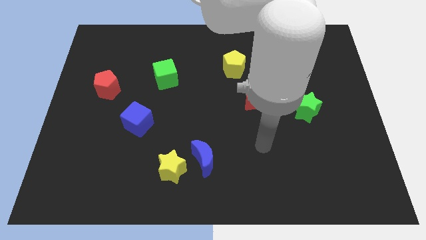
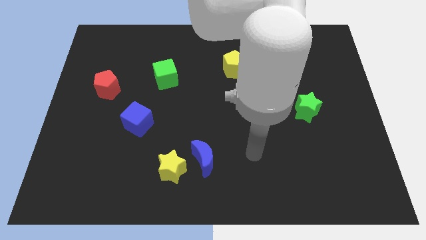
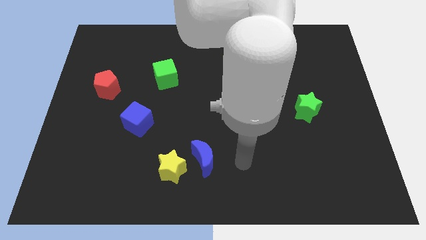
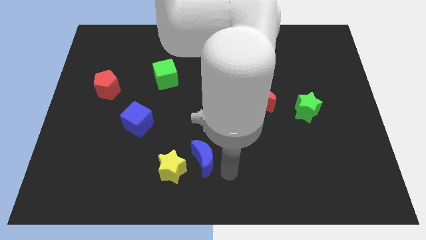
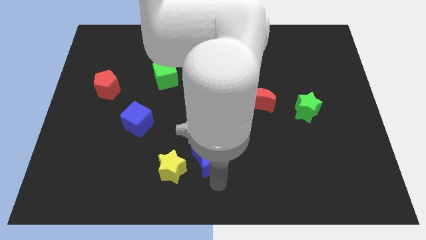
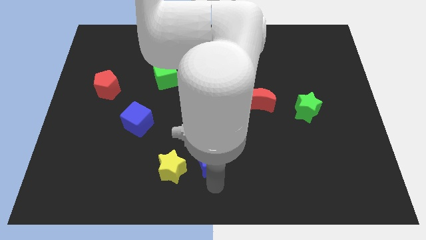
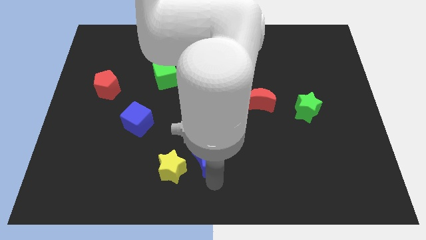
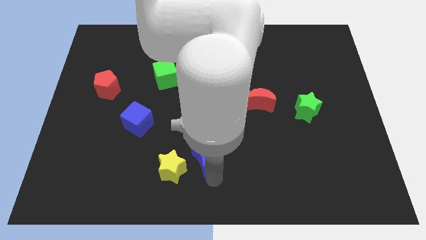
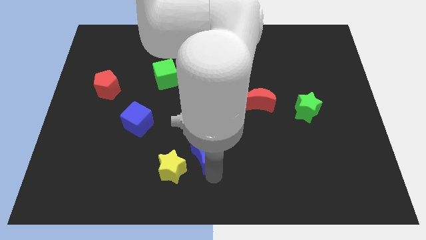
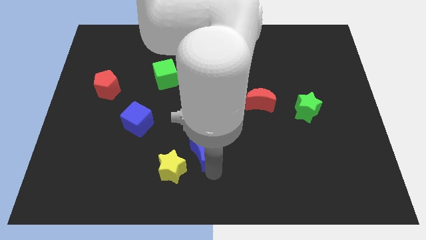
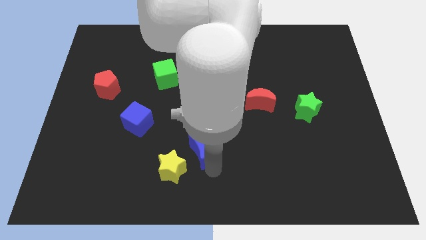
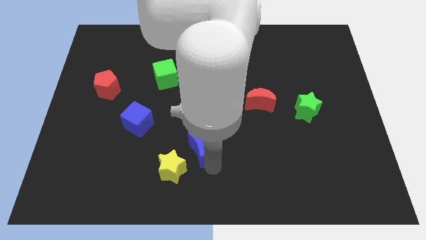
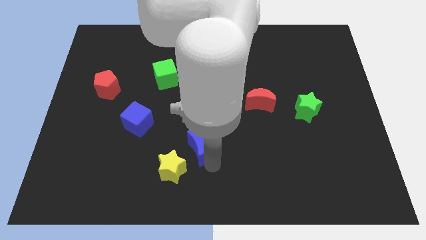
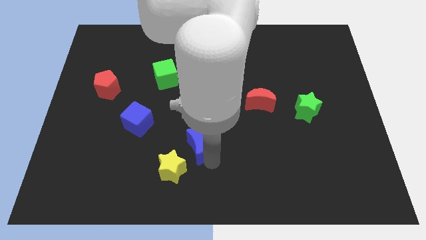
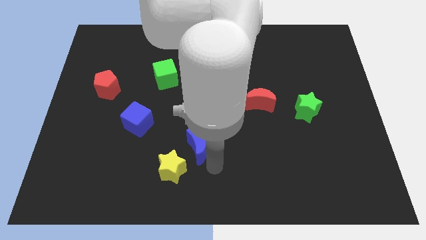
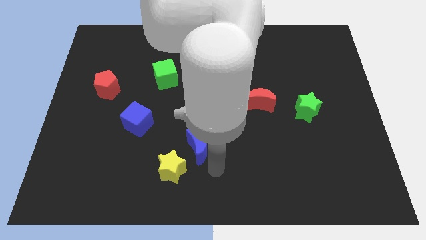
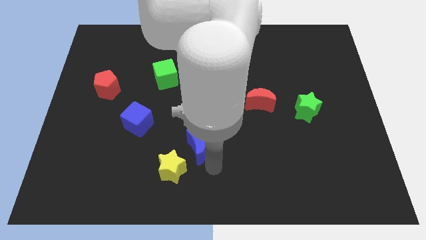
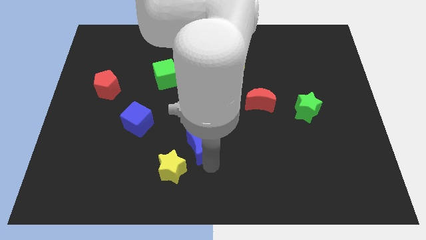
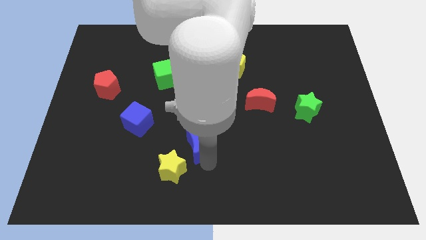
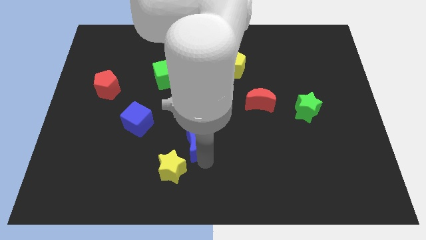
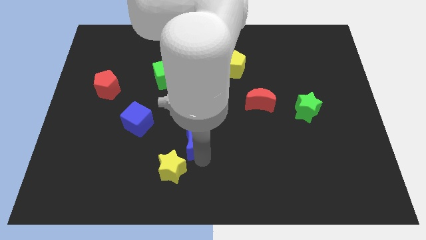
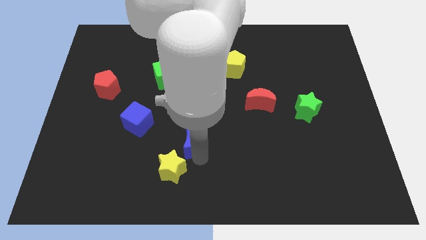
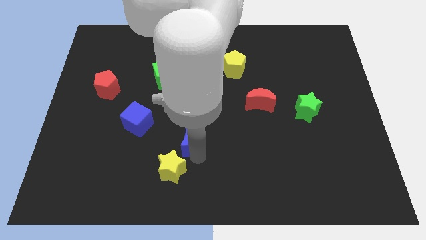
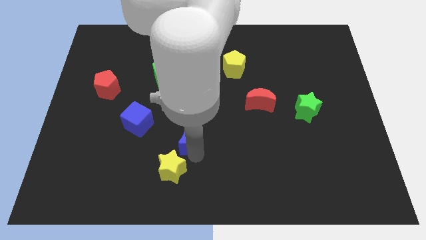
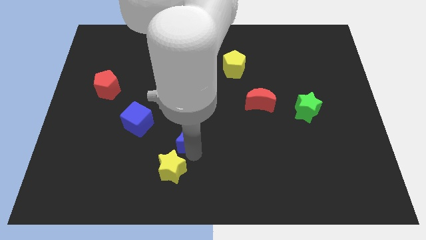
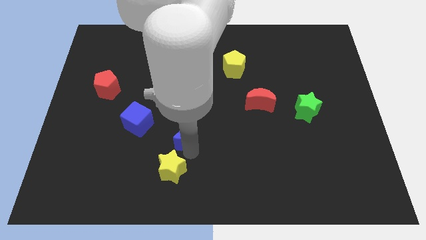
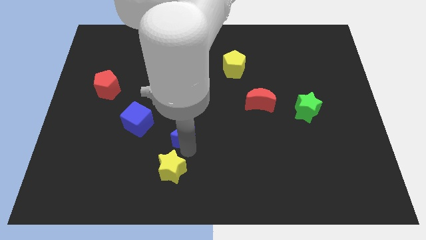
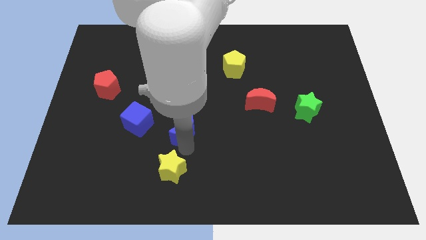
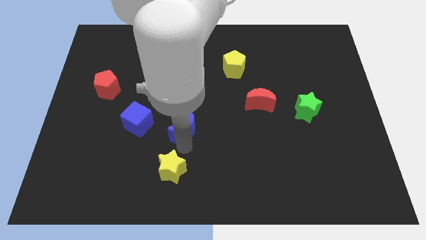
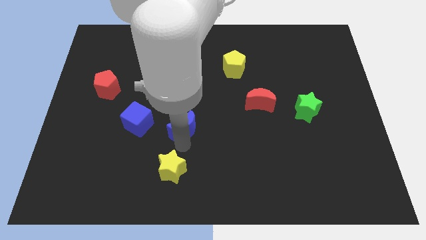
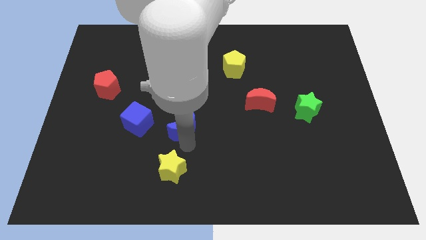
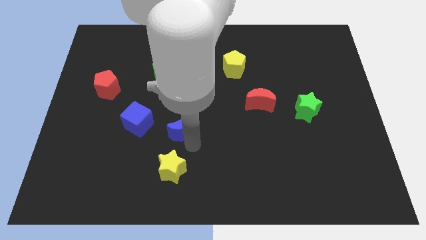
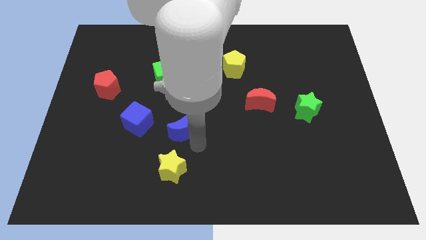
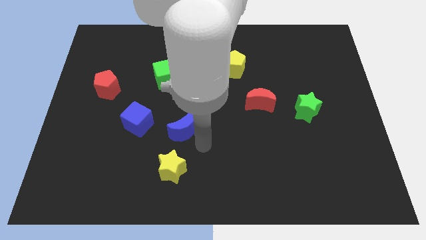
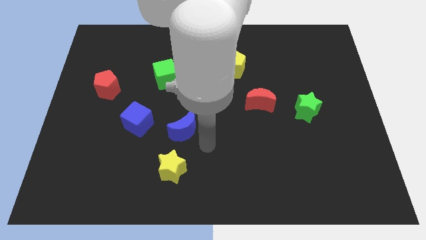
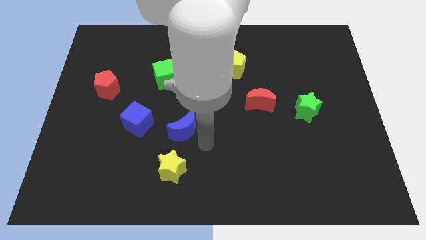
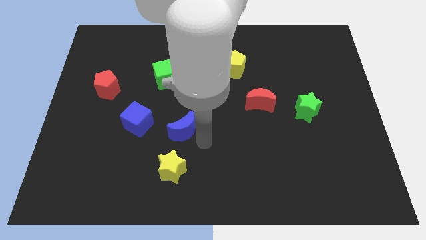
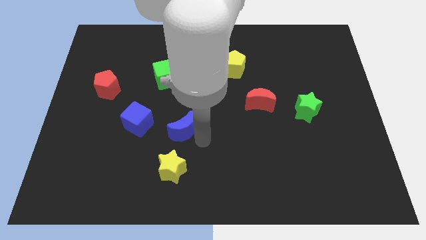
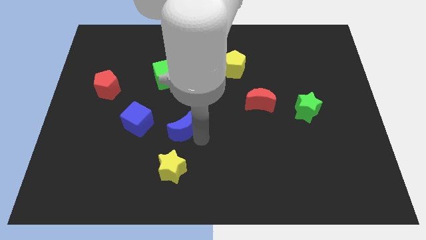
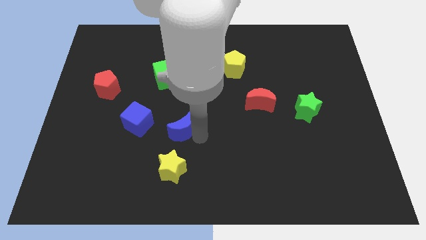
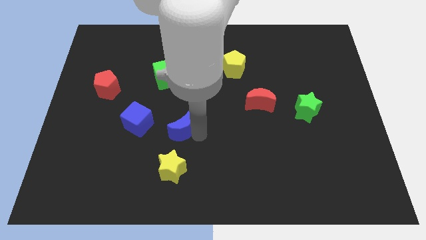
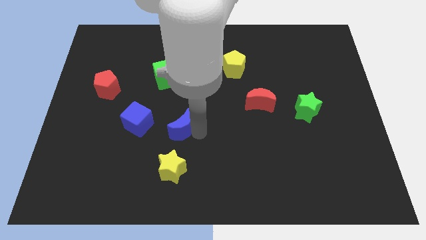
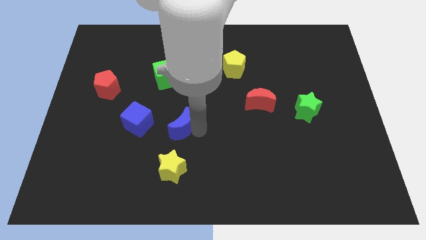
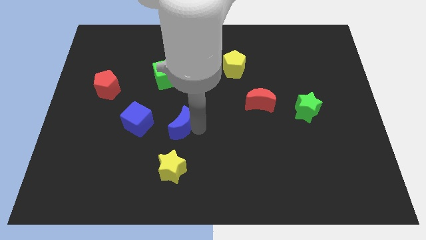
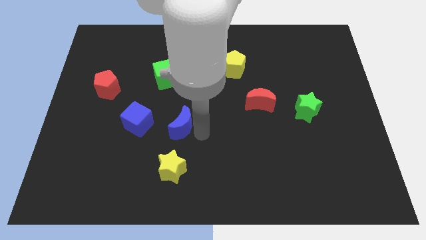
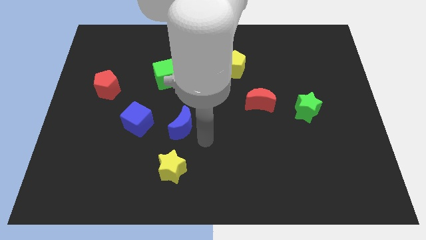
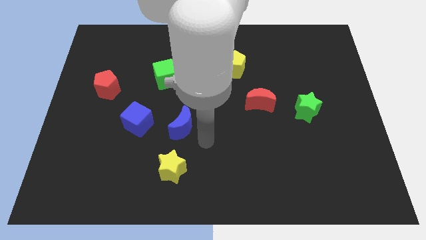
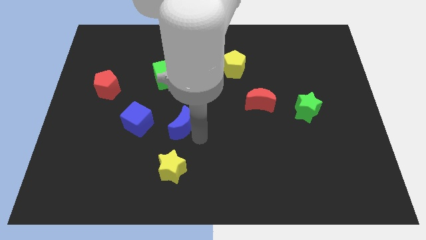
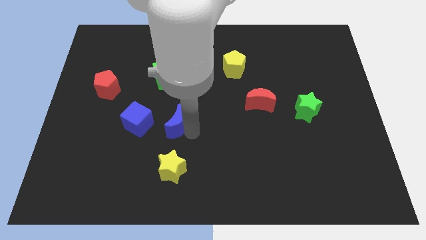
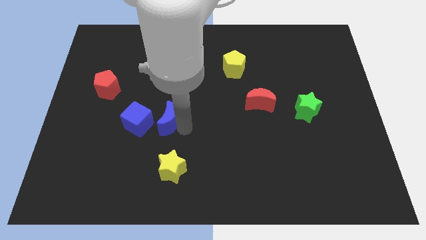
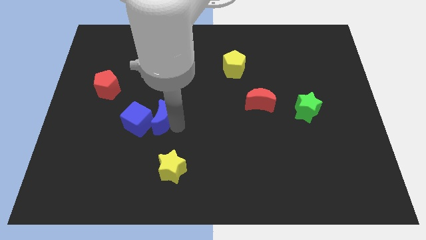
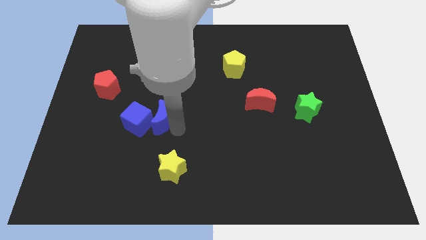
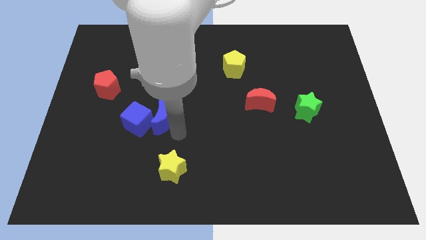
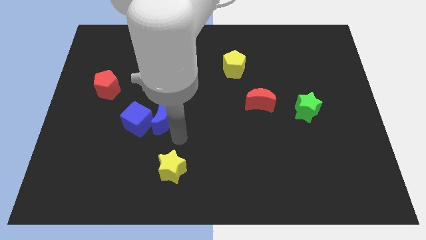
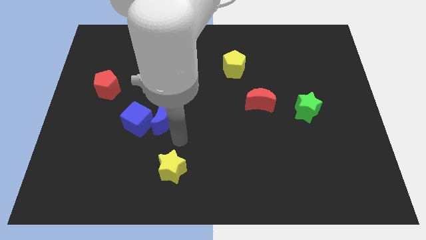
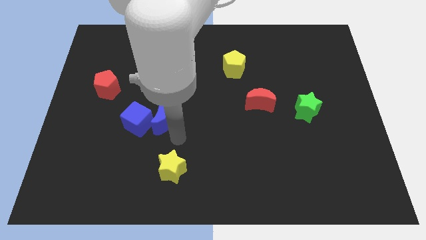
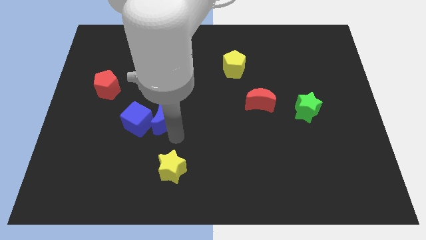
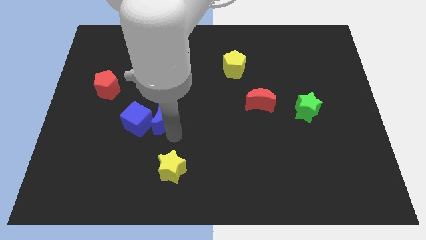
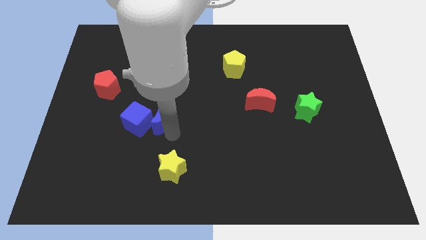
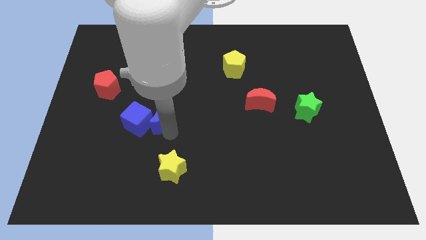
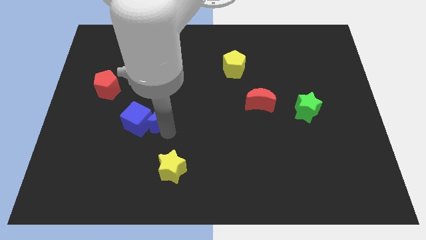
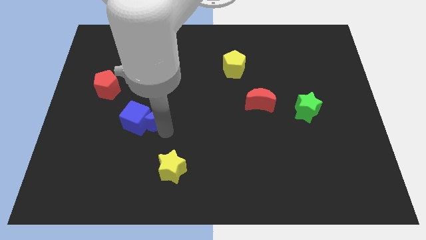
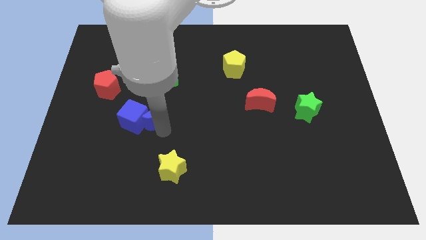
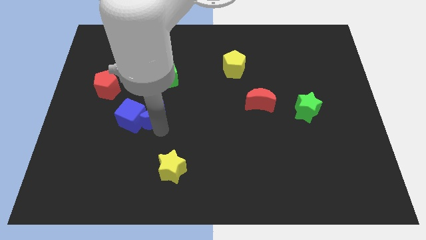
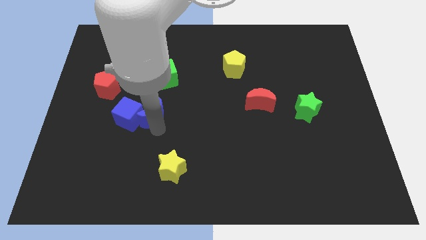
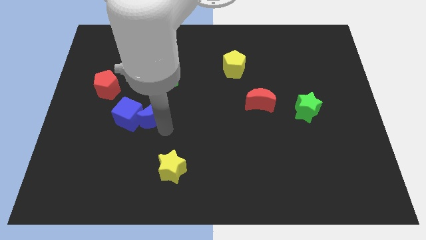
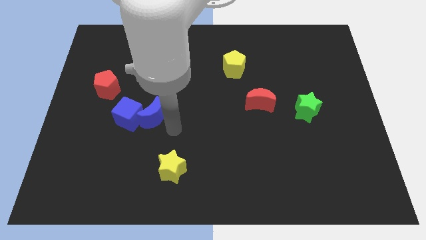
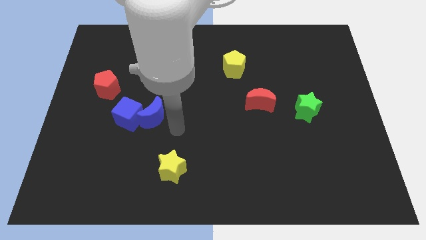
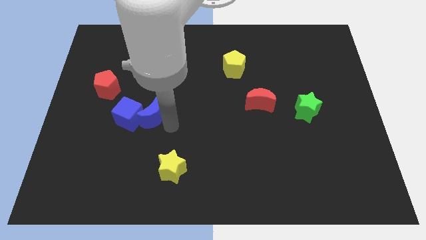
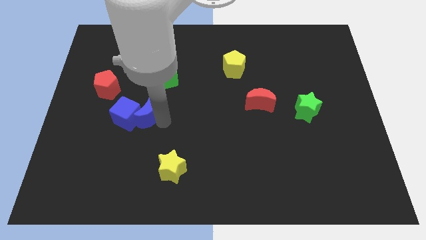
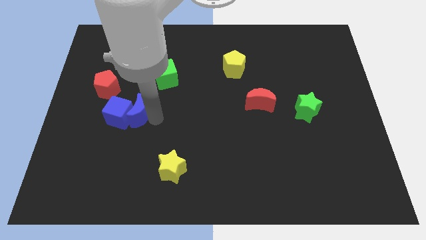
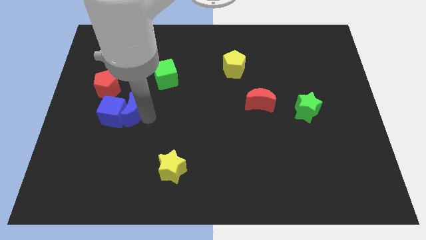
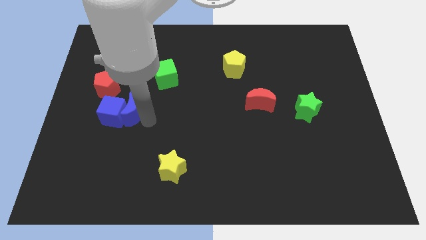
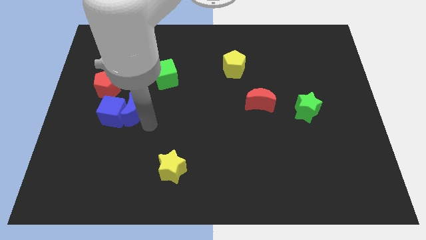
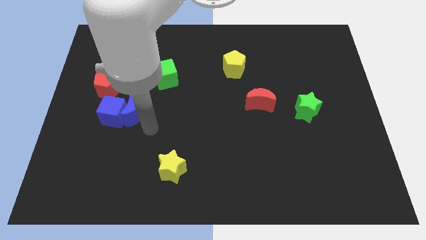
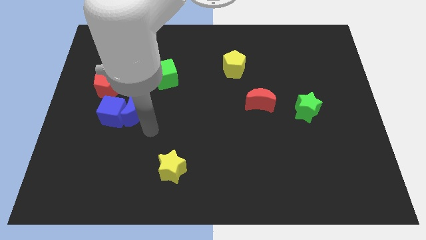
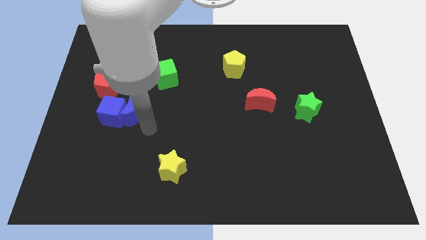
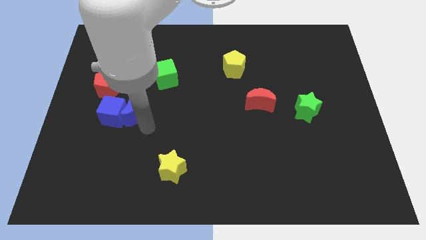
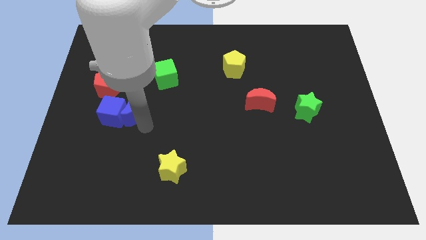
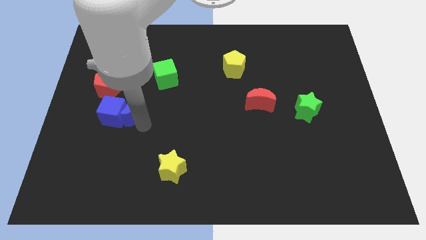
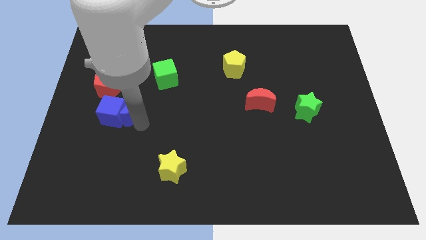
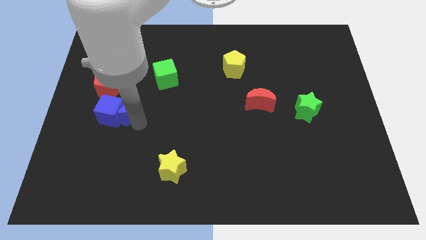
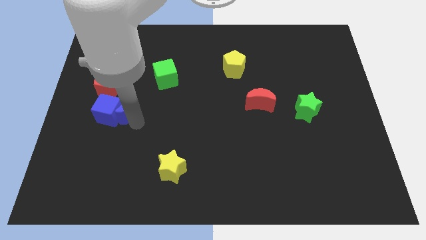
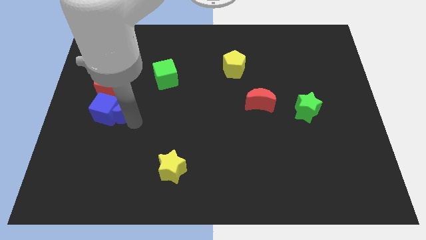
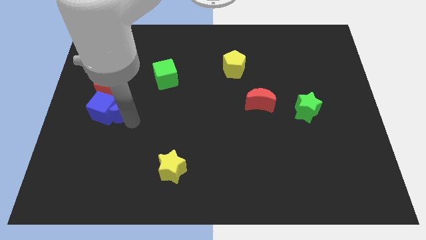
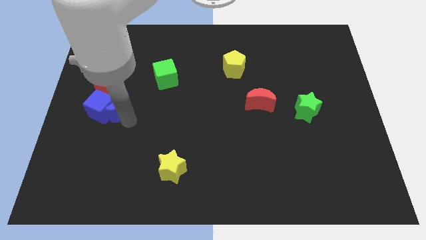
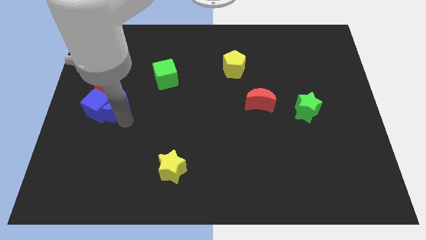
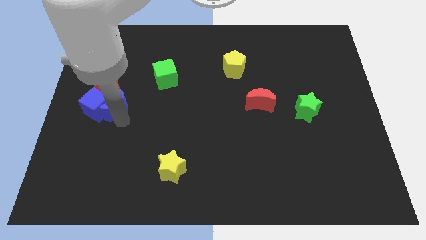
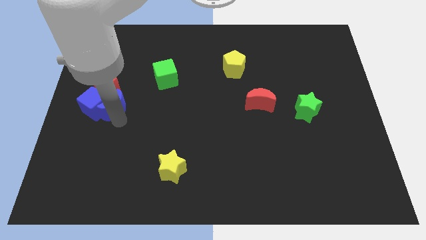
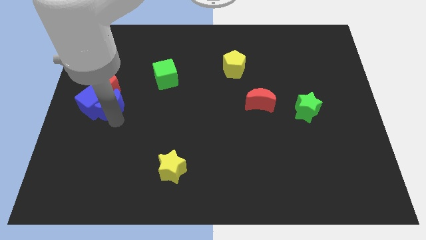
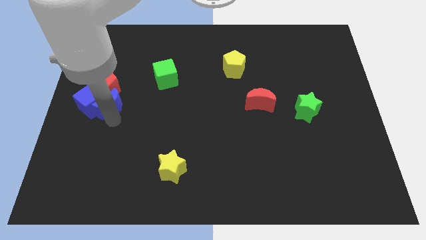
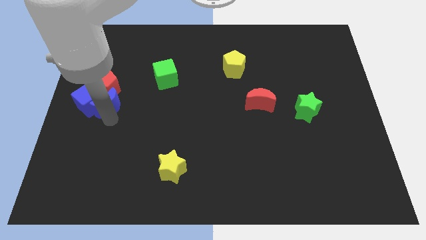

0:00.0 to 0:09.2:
move the blue moon close to the red pentagon
